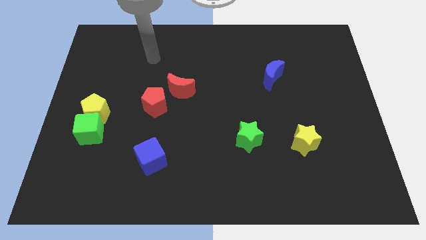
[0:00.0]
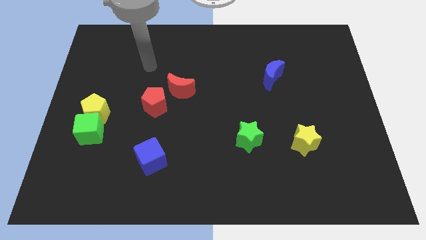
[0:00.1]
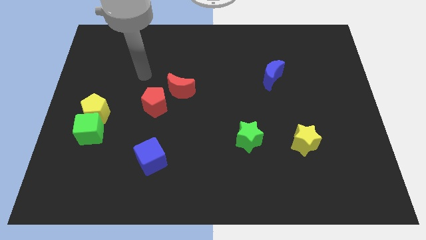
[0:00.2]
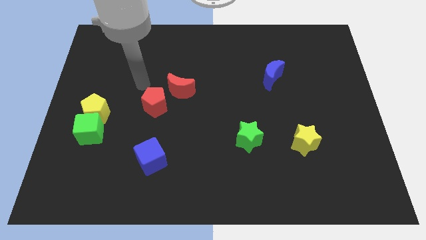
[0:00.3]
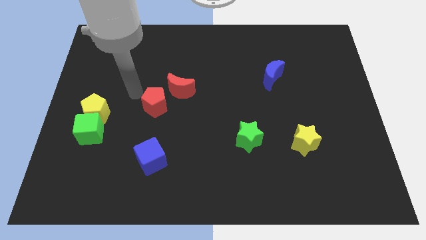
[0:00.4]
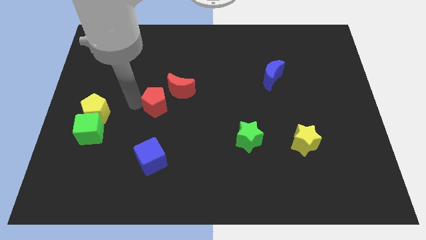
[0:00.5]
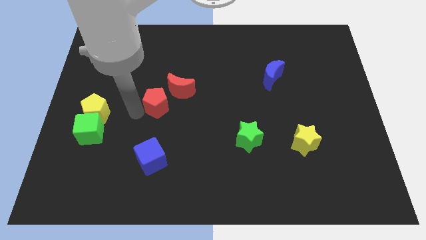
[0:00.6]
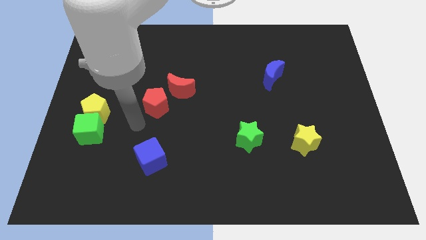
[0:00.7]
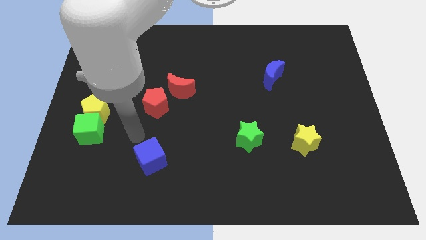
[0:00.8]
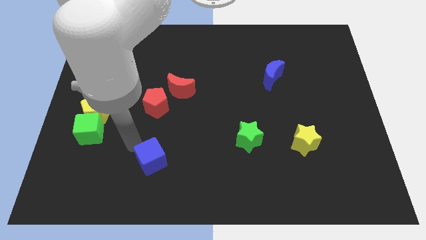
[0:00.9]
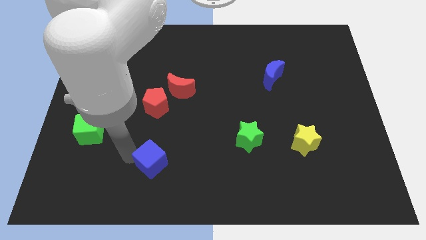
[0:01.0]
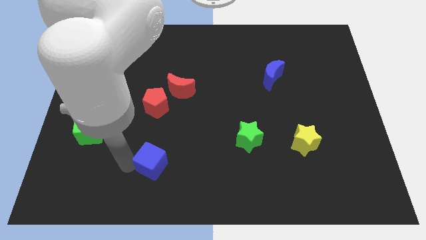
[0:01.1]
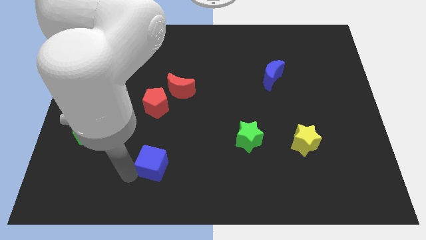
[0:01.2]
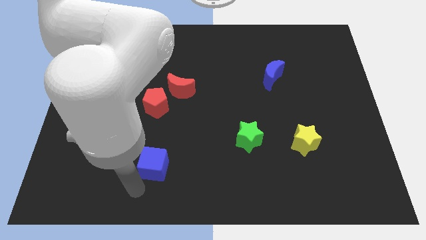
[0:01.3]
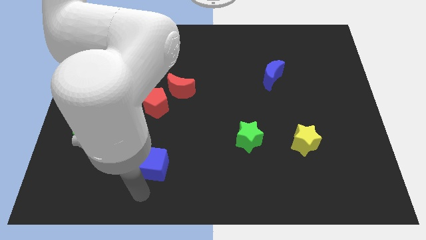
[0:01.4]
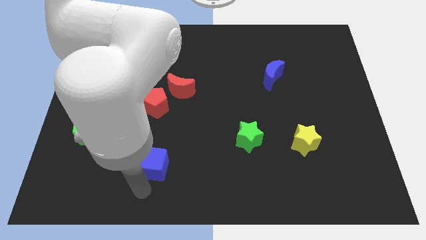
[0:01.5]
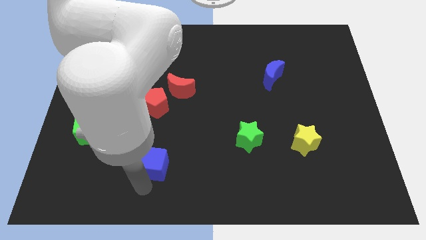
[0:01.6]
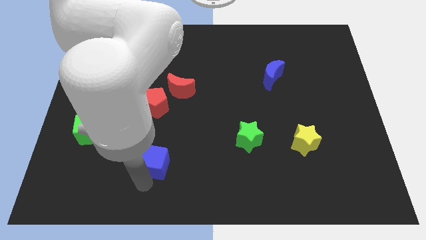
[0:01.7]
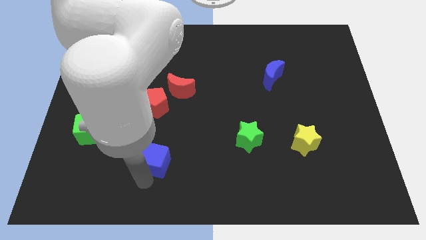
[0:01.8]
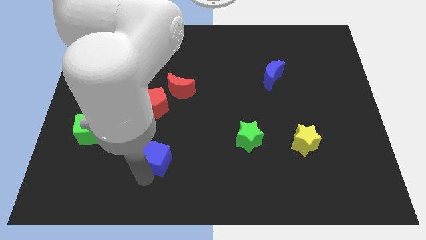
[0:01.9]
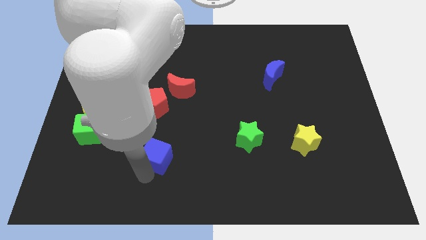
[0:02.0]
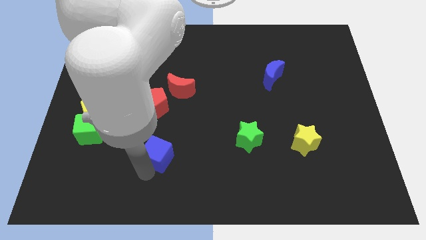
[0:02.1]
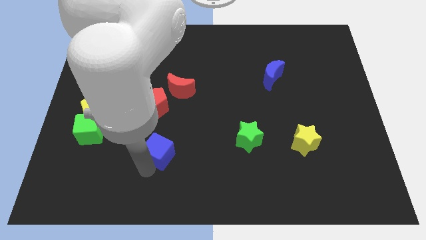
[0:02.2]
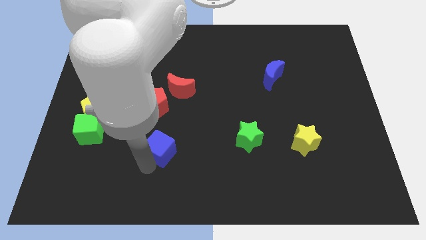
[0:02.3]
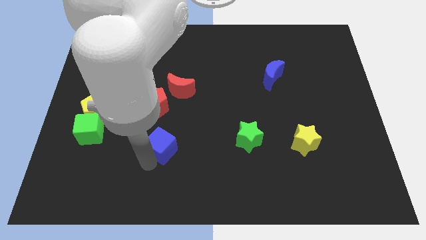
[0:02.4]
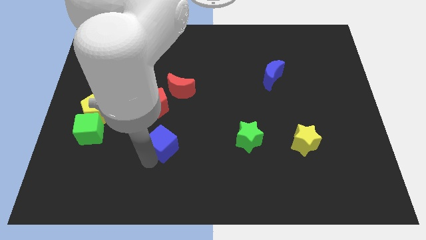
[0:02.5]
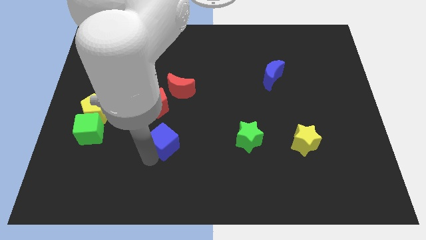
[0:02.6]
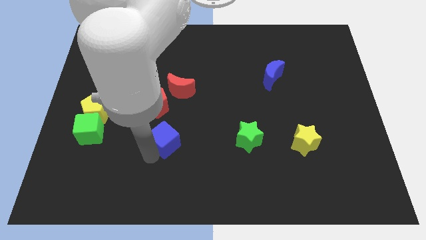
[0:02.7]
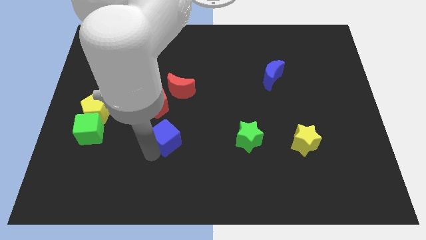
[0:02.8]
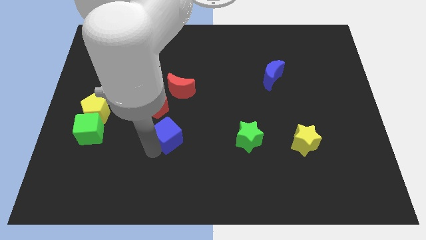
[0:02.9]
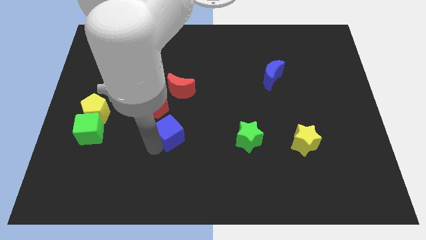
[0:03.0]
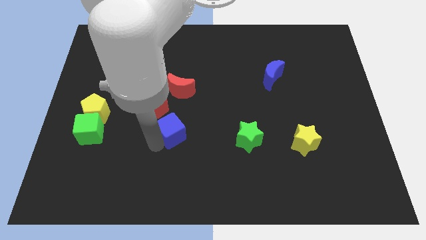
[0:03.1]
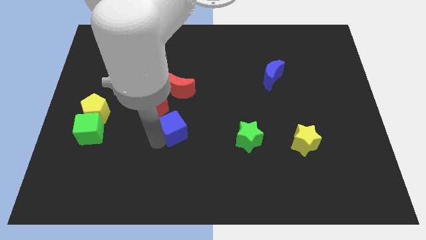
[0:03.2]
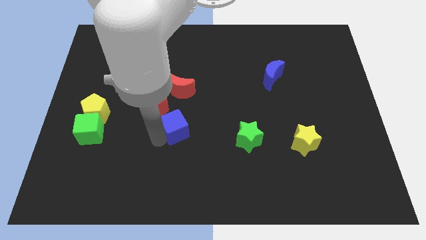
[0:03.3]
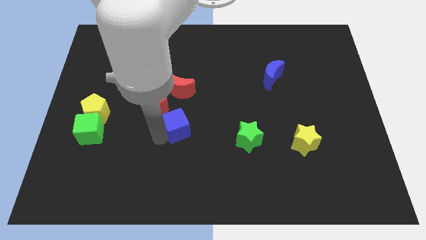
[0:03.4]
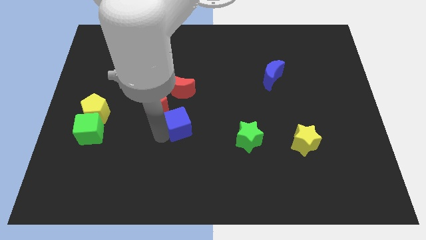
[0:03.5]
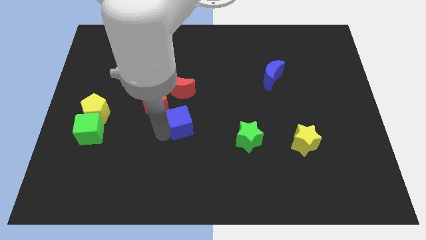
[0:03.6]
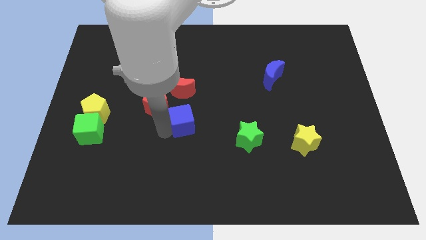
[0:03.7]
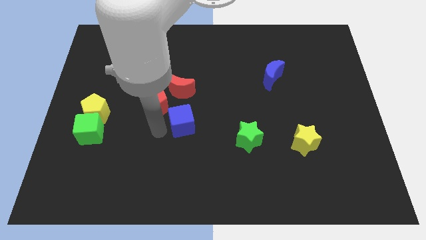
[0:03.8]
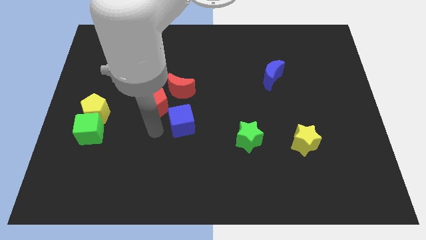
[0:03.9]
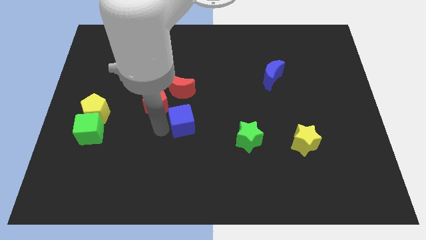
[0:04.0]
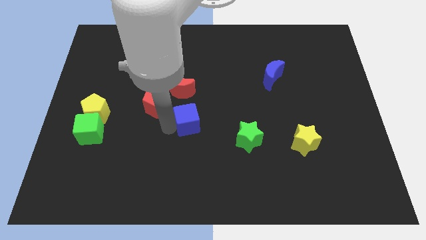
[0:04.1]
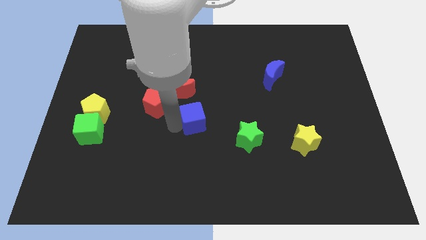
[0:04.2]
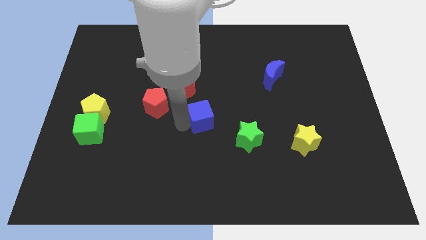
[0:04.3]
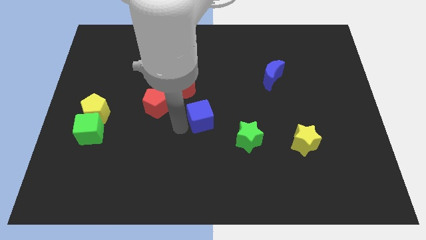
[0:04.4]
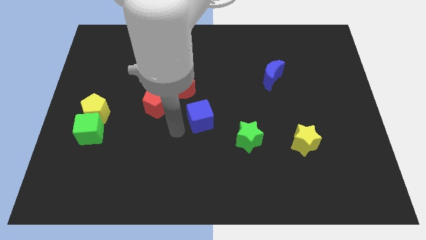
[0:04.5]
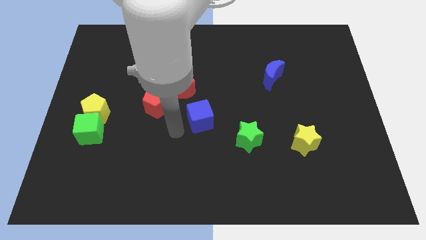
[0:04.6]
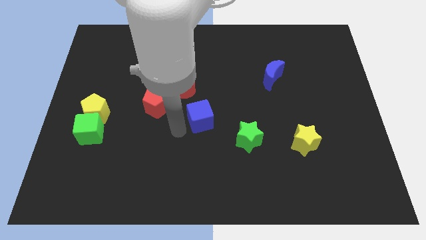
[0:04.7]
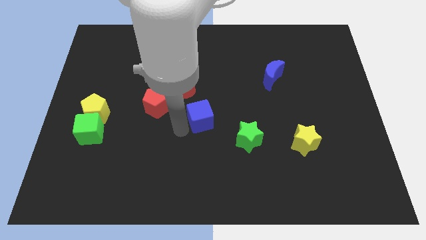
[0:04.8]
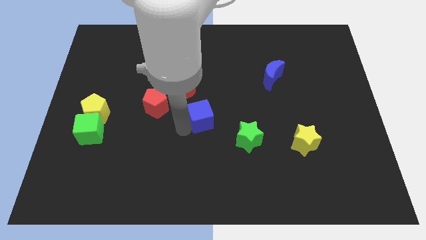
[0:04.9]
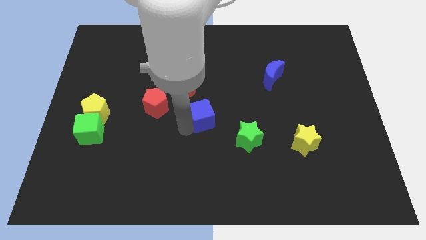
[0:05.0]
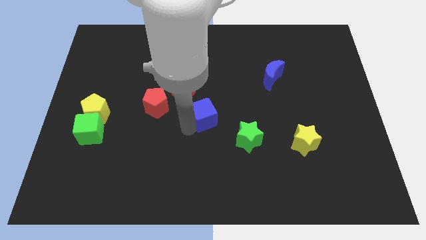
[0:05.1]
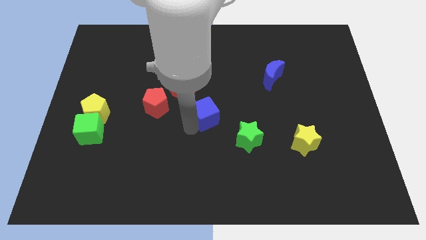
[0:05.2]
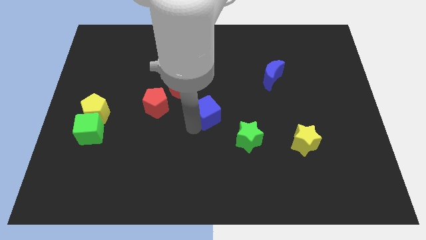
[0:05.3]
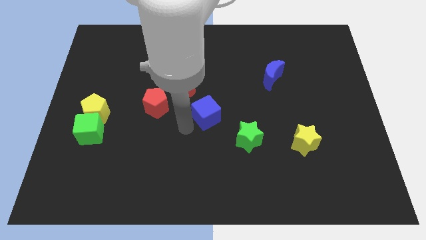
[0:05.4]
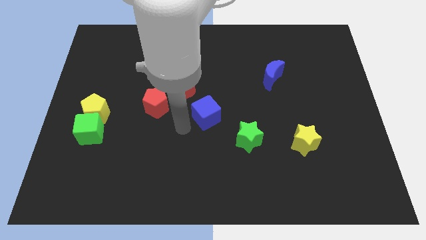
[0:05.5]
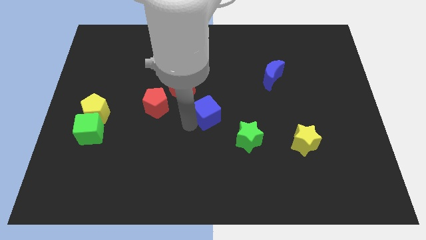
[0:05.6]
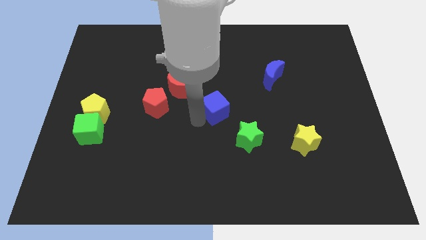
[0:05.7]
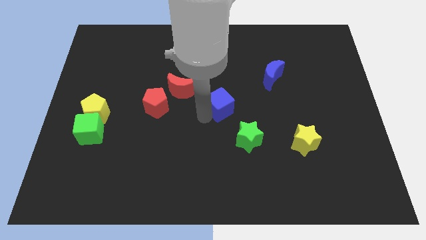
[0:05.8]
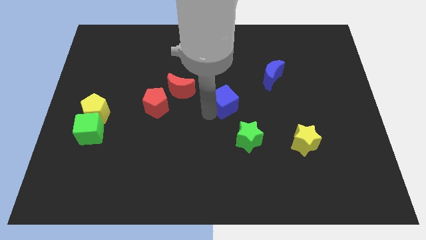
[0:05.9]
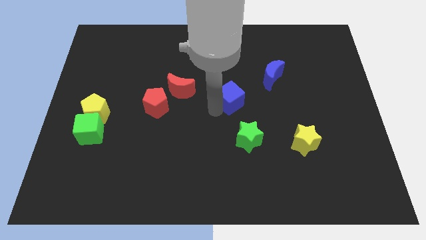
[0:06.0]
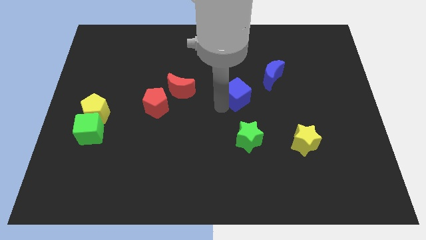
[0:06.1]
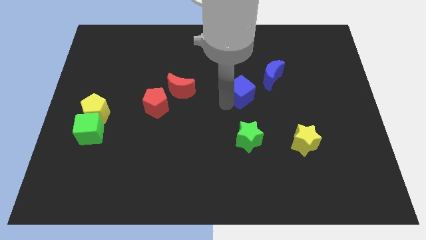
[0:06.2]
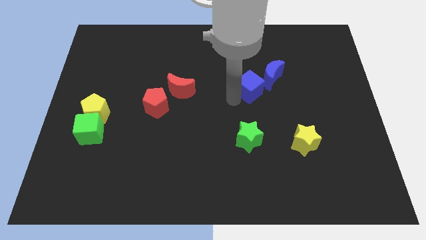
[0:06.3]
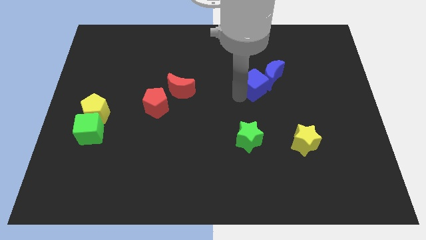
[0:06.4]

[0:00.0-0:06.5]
slide the blue cube close to the blue moon

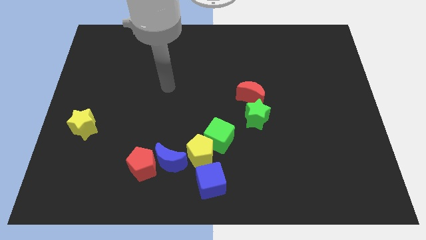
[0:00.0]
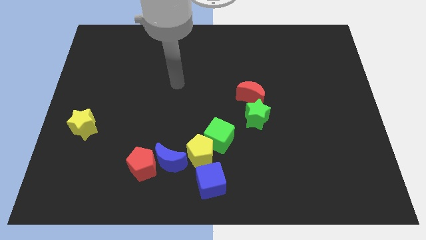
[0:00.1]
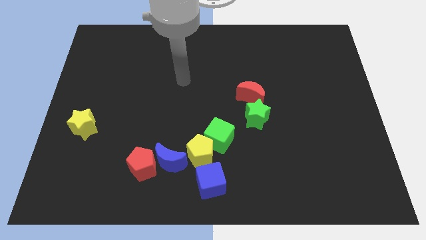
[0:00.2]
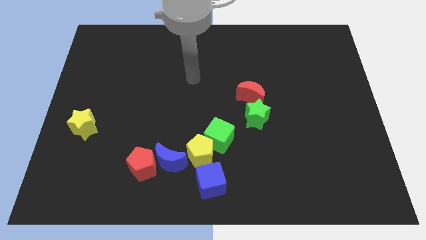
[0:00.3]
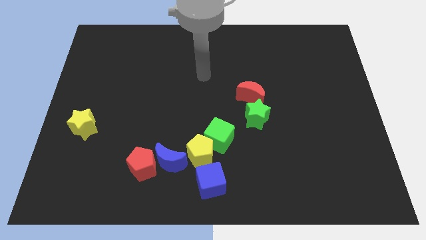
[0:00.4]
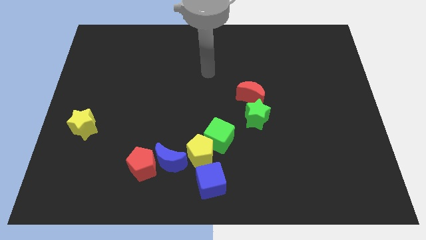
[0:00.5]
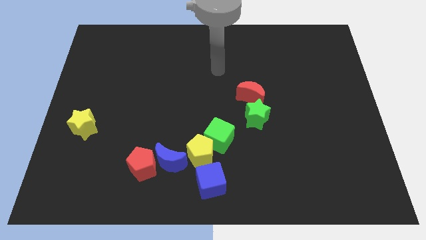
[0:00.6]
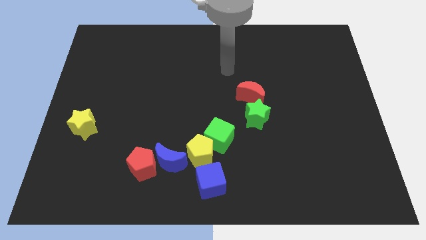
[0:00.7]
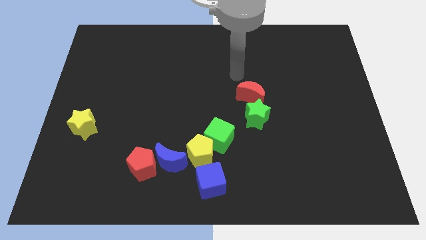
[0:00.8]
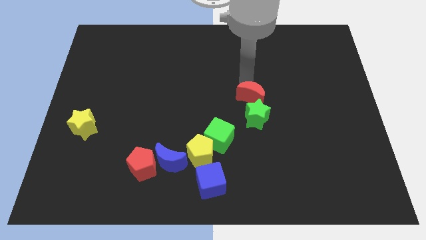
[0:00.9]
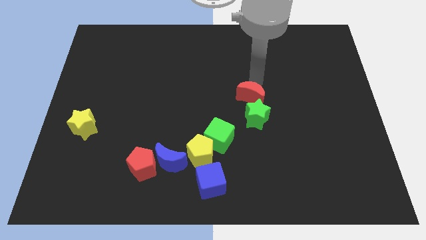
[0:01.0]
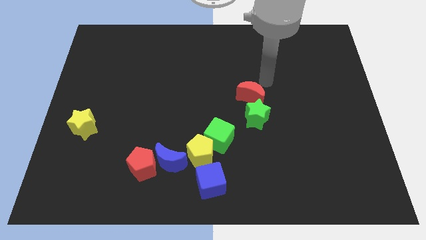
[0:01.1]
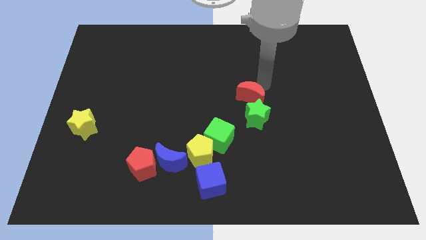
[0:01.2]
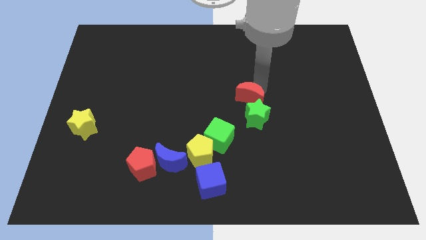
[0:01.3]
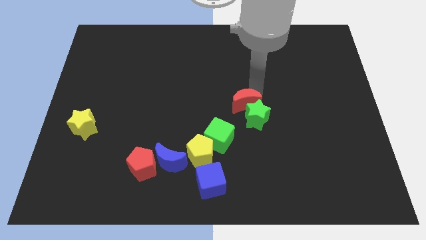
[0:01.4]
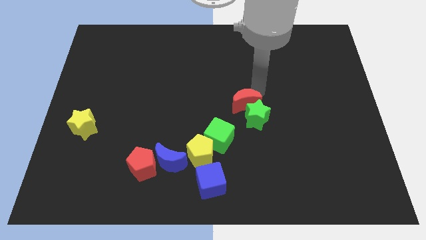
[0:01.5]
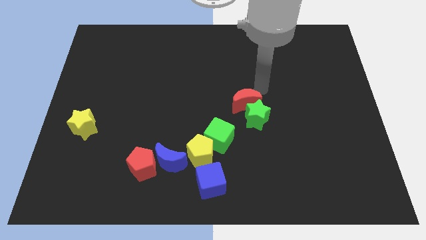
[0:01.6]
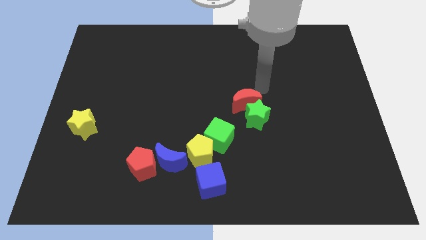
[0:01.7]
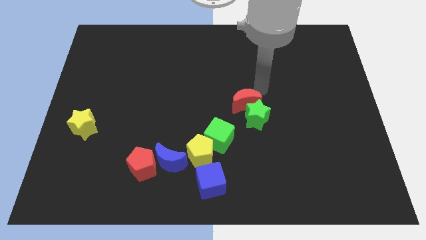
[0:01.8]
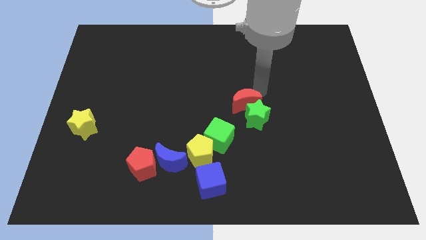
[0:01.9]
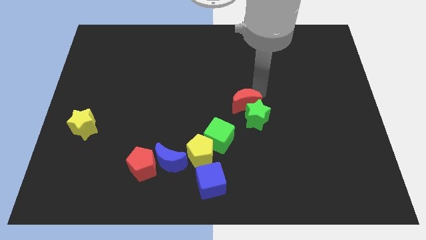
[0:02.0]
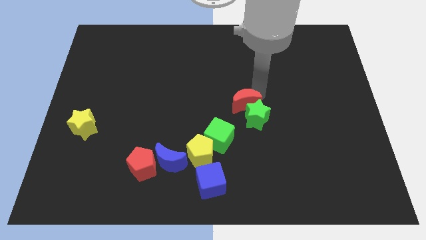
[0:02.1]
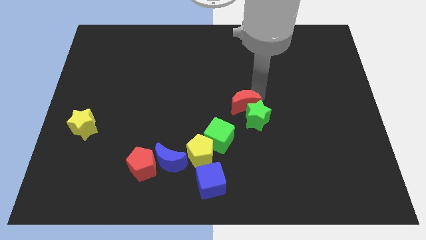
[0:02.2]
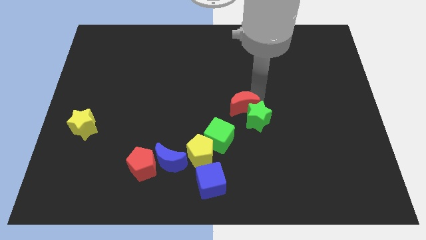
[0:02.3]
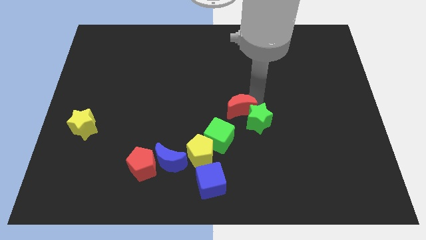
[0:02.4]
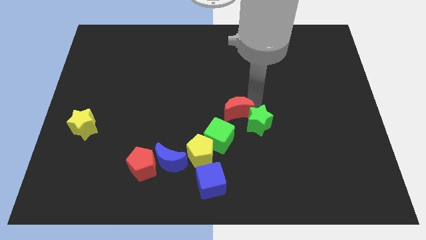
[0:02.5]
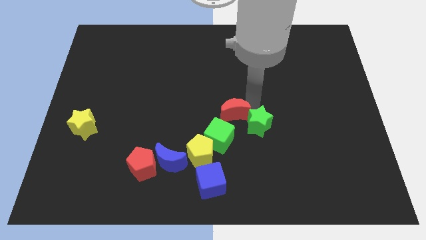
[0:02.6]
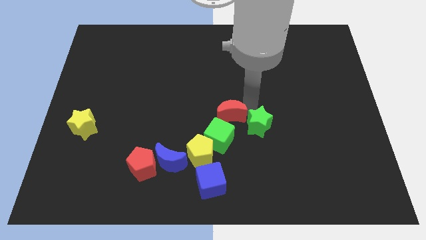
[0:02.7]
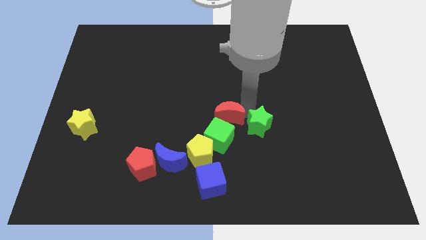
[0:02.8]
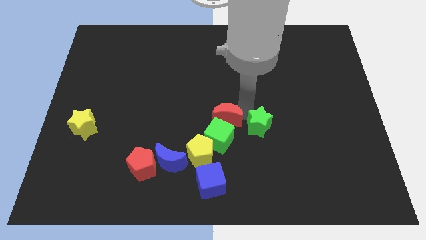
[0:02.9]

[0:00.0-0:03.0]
move the red moon to the green cube
